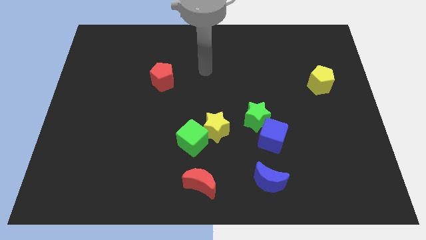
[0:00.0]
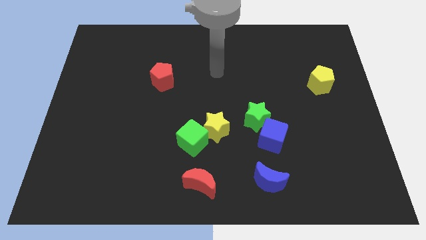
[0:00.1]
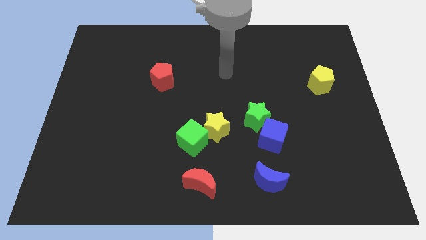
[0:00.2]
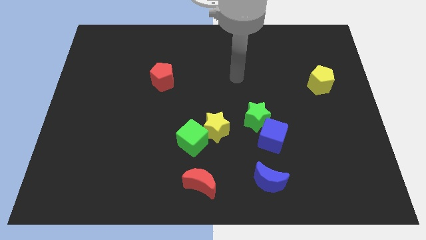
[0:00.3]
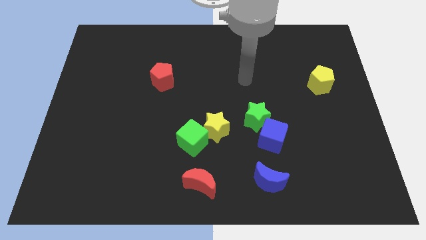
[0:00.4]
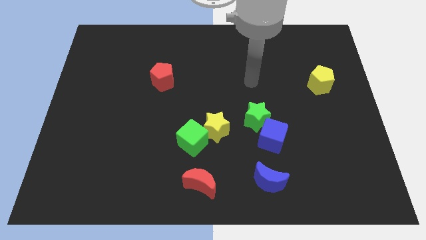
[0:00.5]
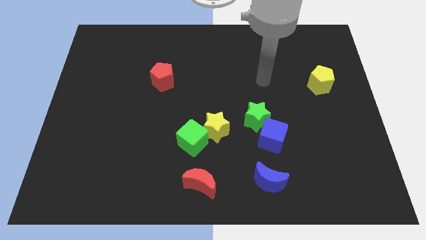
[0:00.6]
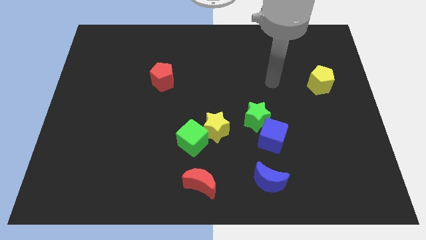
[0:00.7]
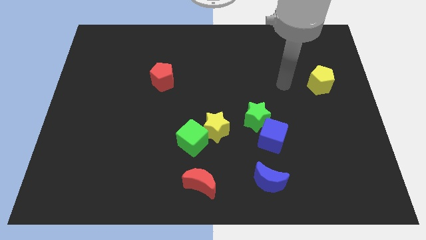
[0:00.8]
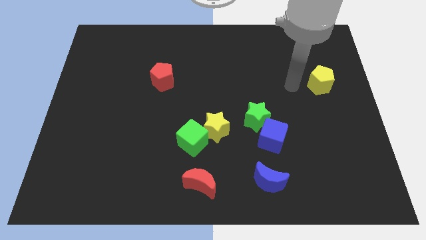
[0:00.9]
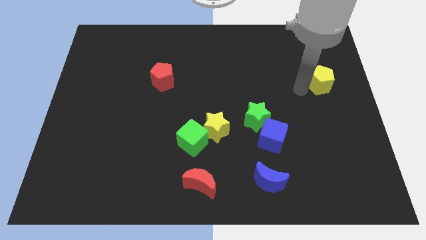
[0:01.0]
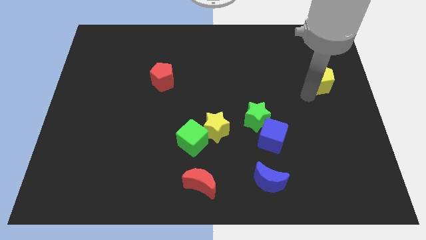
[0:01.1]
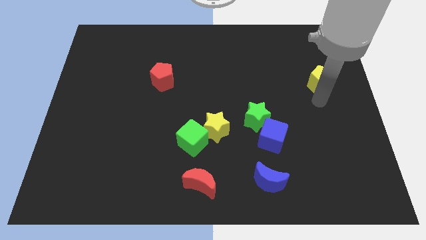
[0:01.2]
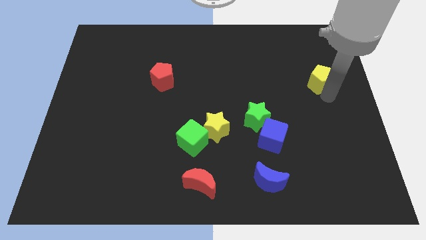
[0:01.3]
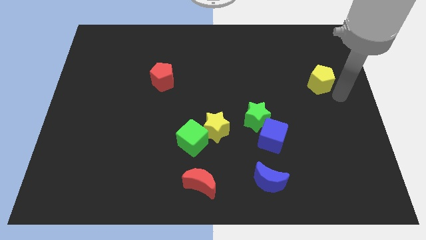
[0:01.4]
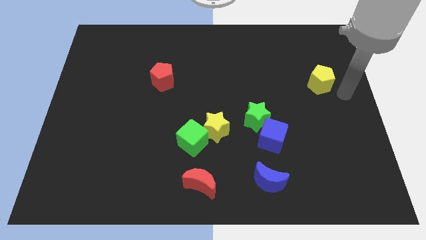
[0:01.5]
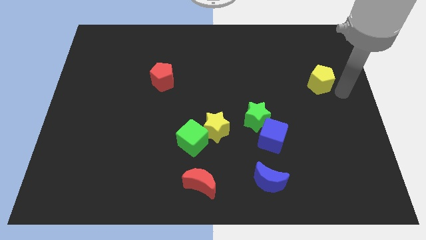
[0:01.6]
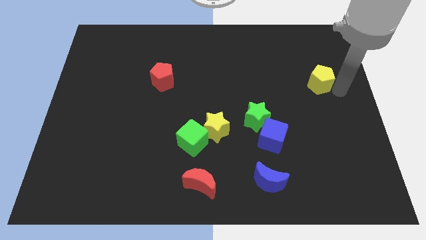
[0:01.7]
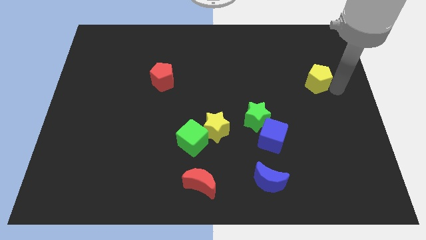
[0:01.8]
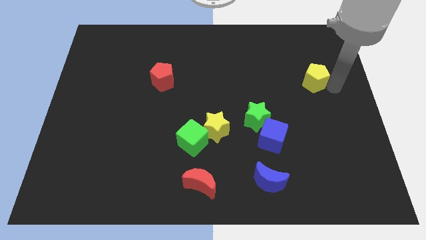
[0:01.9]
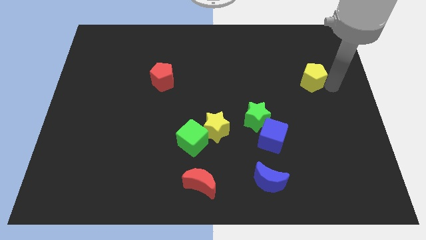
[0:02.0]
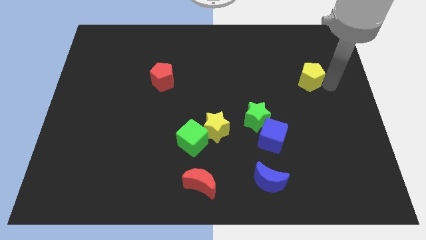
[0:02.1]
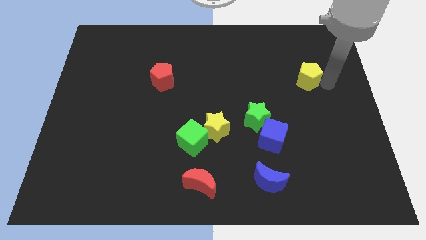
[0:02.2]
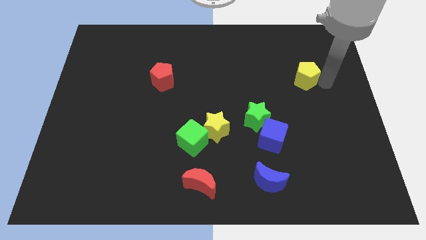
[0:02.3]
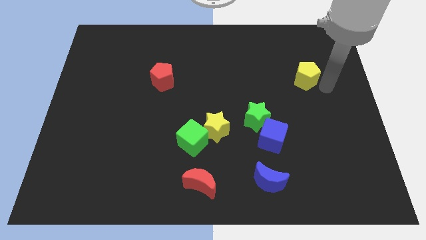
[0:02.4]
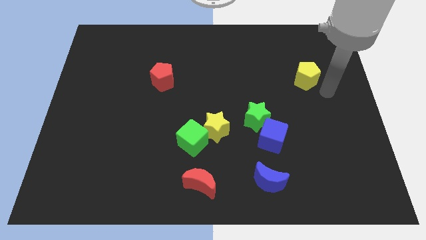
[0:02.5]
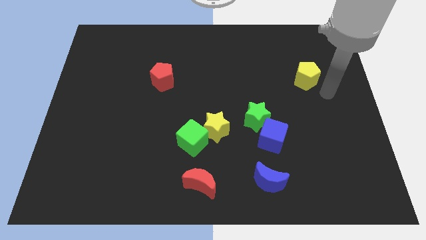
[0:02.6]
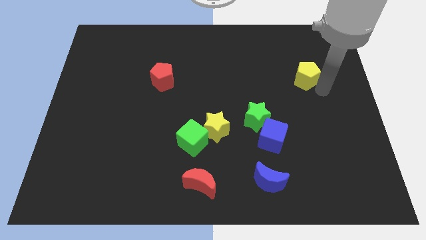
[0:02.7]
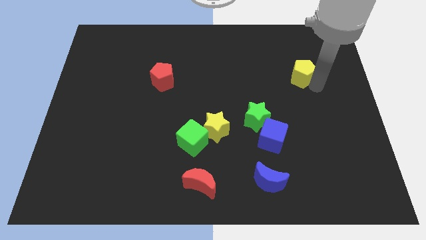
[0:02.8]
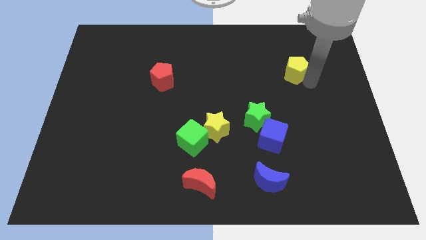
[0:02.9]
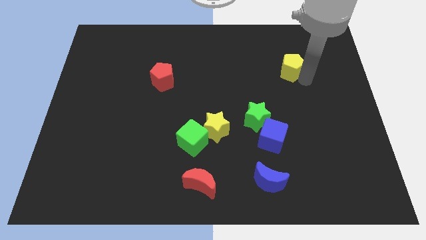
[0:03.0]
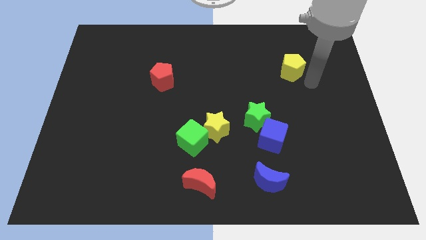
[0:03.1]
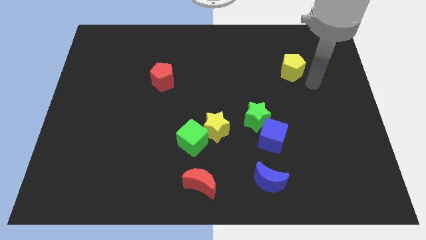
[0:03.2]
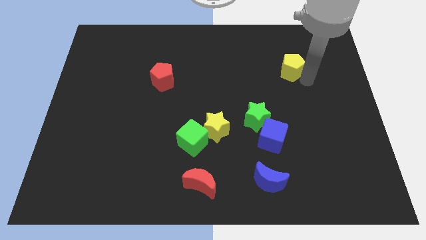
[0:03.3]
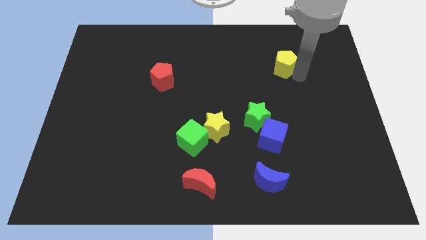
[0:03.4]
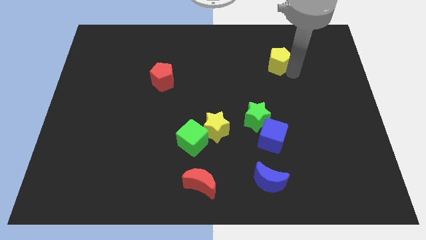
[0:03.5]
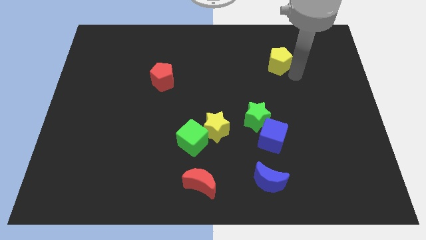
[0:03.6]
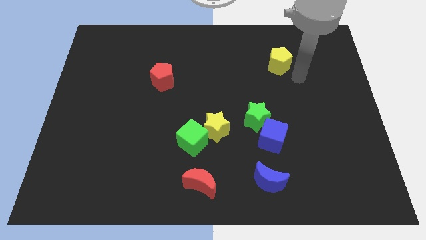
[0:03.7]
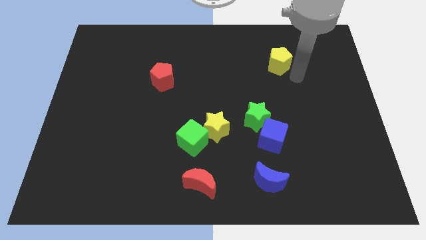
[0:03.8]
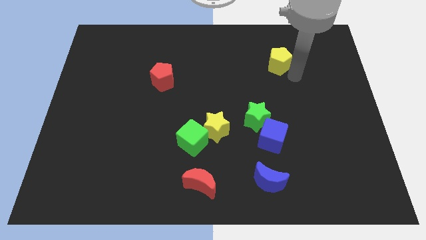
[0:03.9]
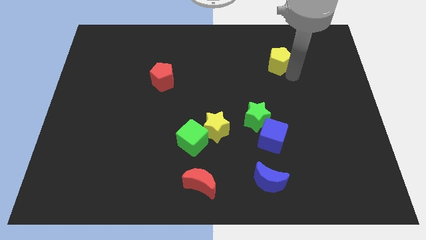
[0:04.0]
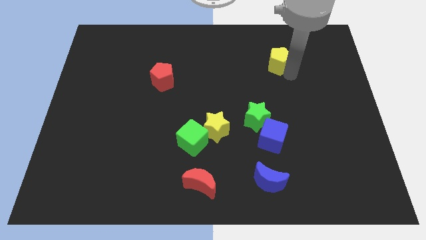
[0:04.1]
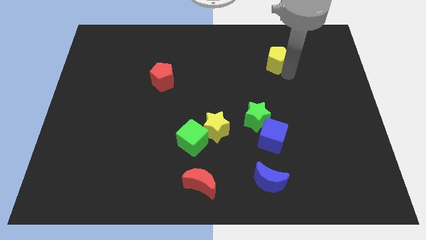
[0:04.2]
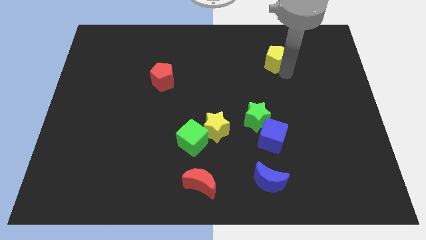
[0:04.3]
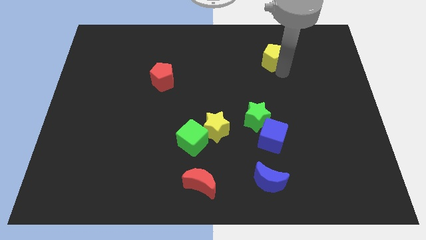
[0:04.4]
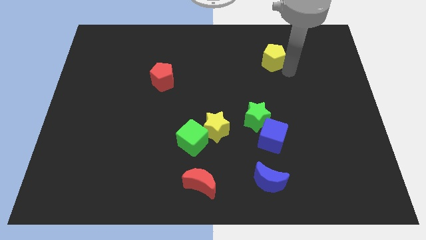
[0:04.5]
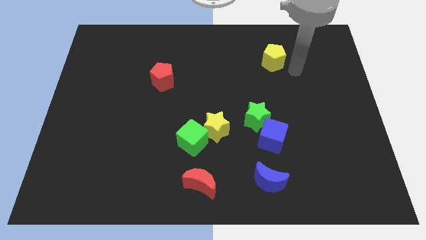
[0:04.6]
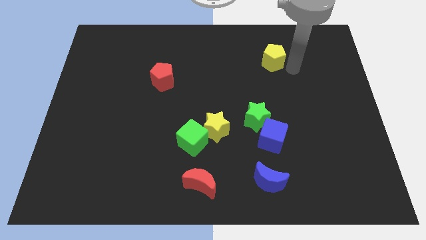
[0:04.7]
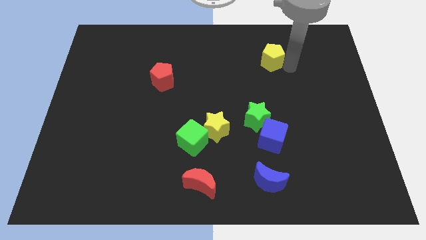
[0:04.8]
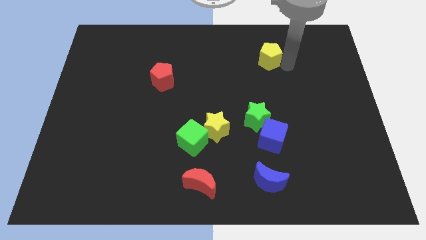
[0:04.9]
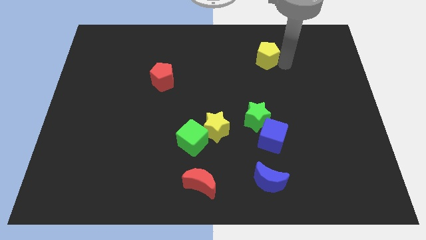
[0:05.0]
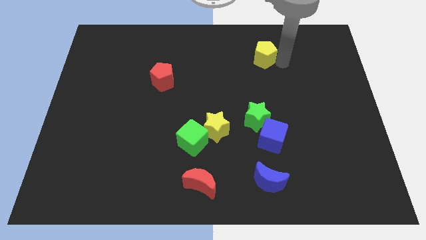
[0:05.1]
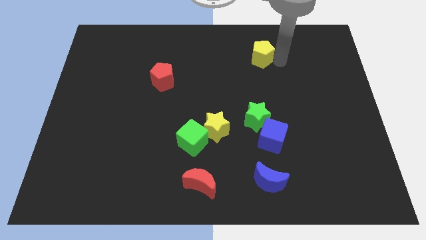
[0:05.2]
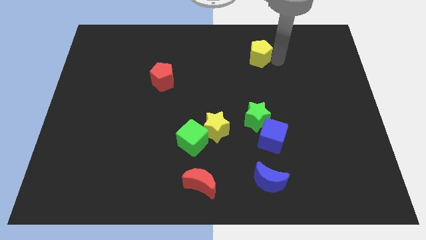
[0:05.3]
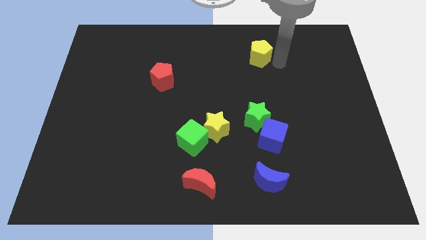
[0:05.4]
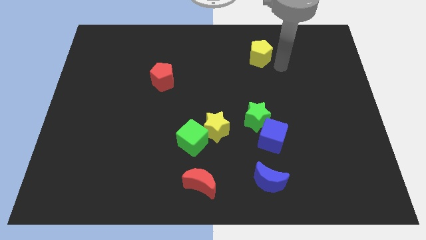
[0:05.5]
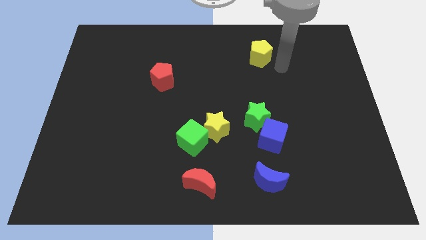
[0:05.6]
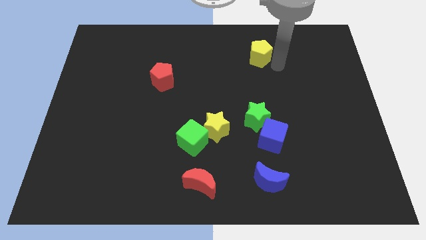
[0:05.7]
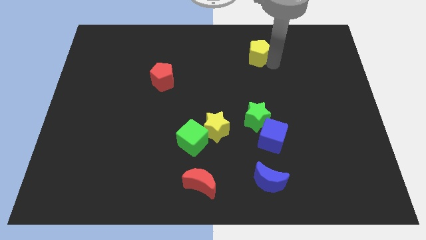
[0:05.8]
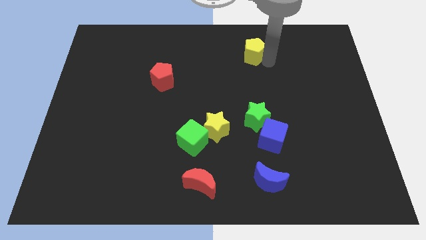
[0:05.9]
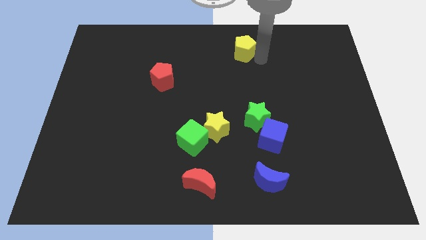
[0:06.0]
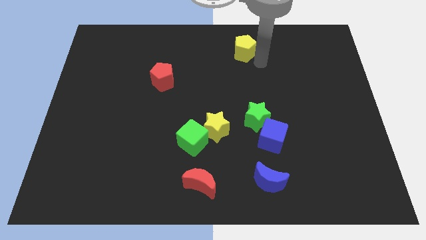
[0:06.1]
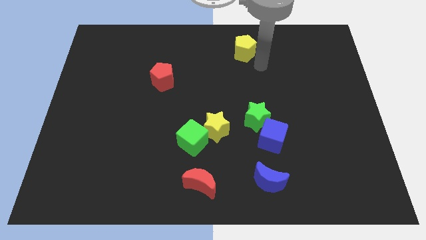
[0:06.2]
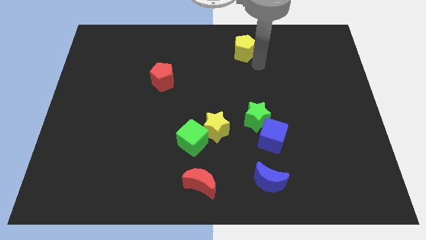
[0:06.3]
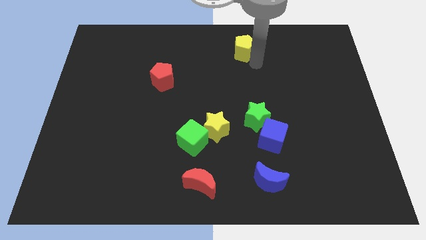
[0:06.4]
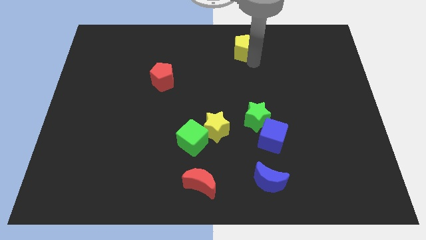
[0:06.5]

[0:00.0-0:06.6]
slide the yellow pentagon to the top side
